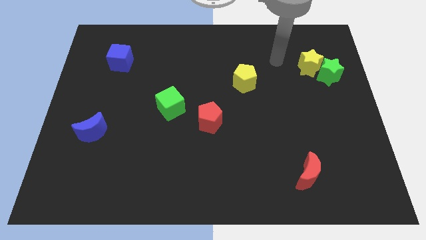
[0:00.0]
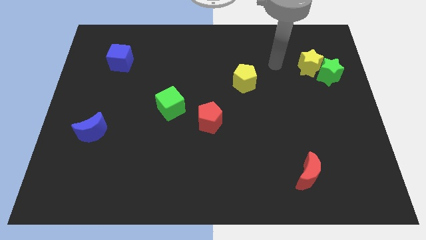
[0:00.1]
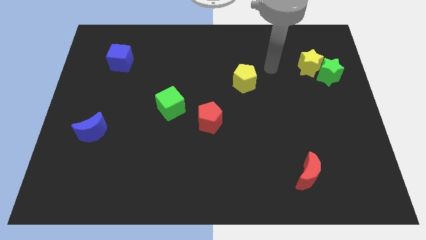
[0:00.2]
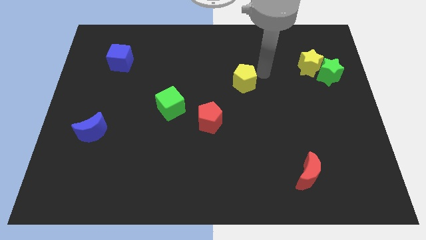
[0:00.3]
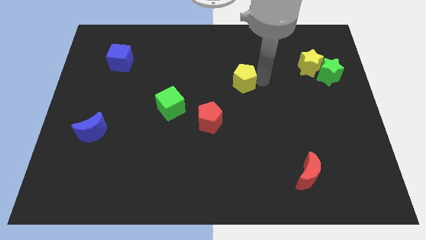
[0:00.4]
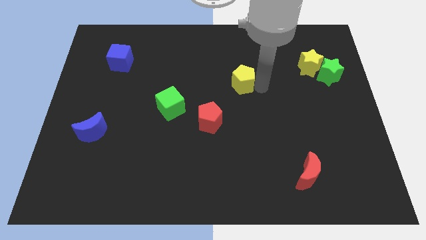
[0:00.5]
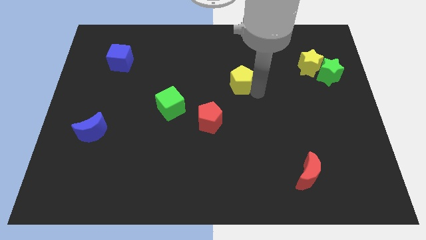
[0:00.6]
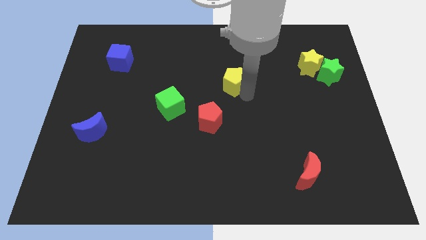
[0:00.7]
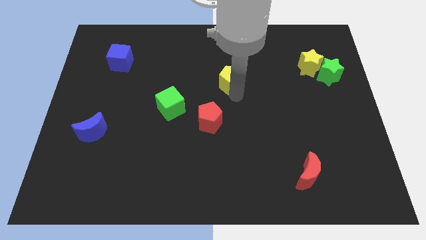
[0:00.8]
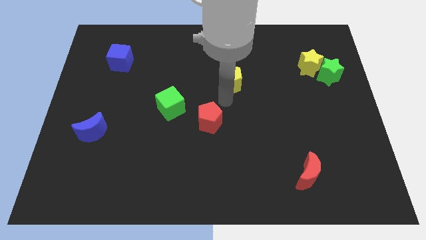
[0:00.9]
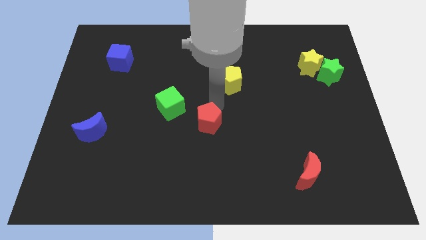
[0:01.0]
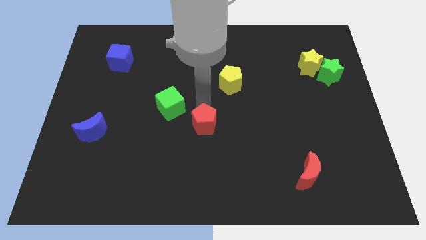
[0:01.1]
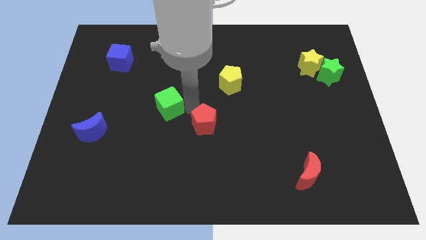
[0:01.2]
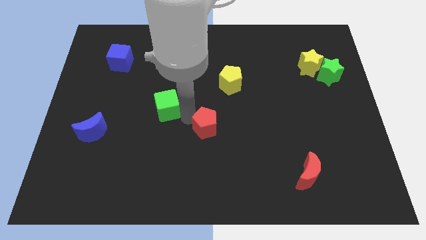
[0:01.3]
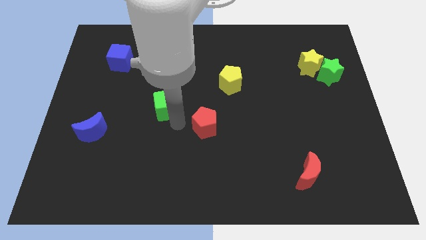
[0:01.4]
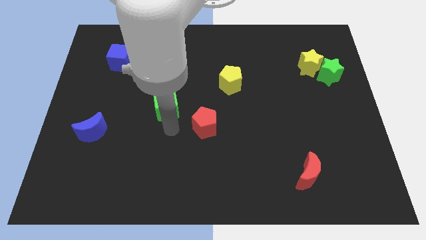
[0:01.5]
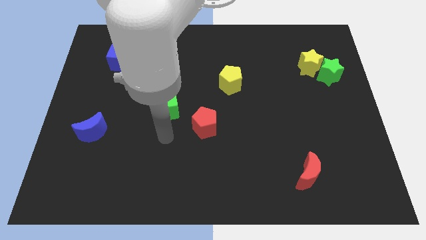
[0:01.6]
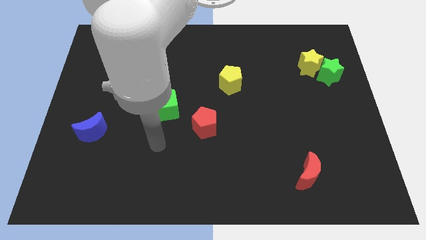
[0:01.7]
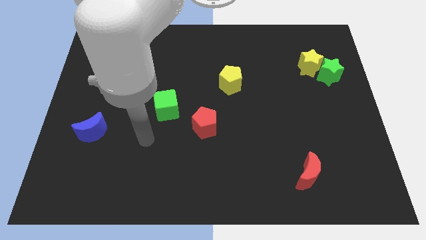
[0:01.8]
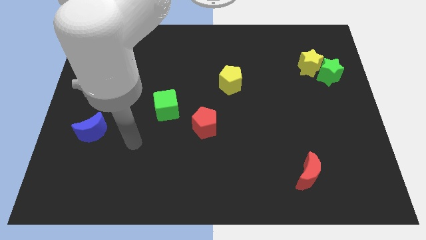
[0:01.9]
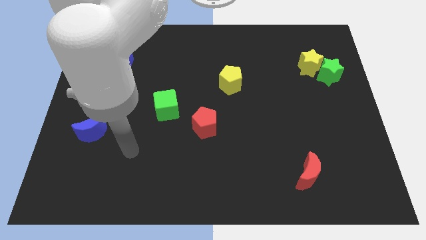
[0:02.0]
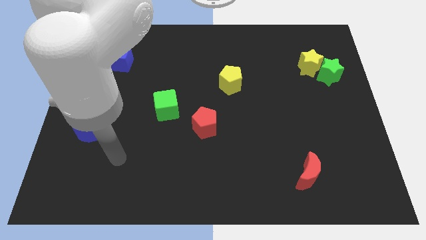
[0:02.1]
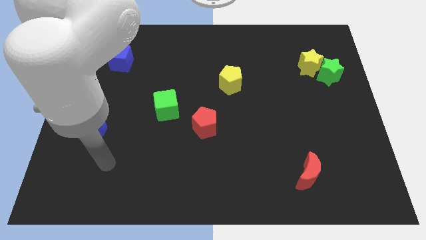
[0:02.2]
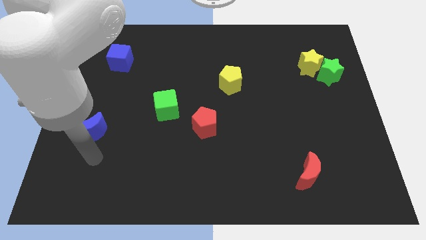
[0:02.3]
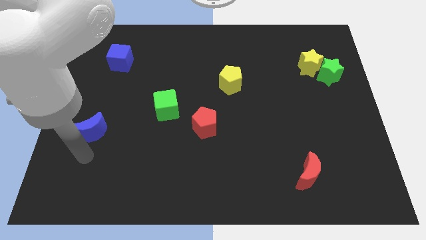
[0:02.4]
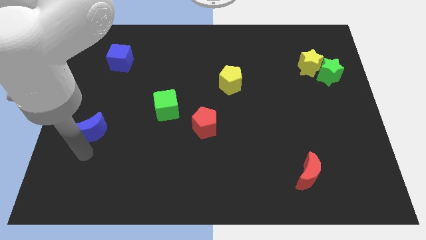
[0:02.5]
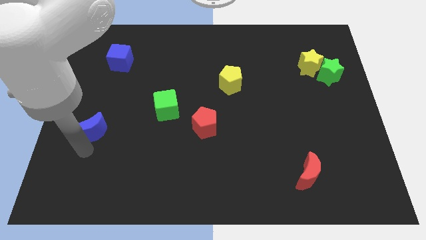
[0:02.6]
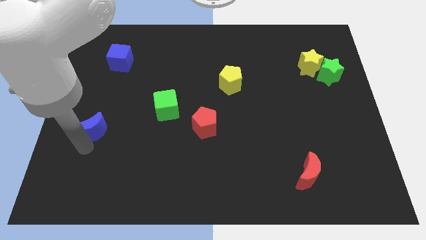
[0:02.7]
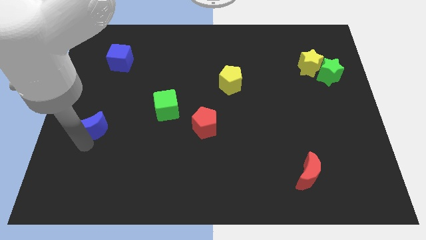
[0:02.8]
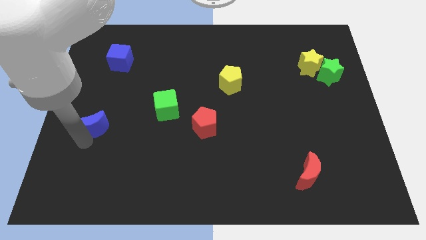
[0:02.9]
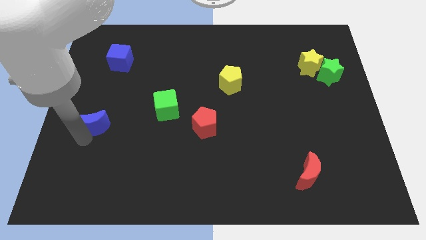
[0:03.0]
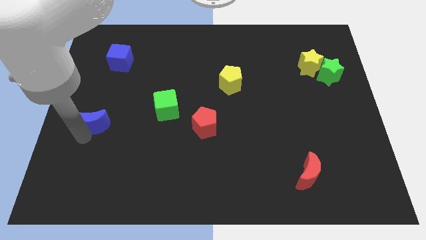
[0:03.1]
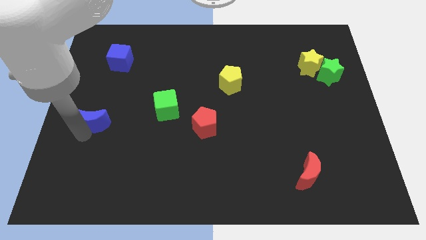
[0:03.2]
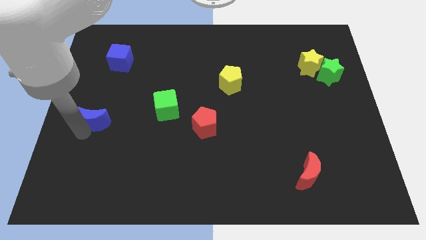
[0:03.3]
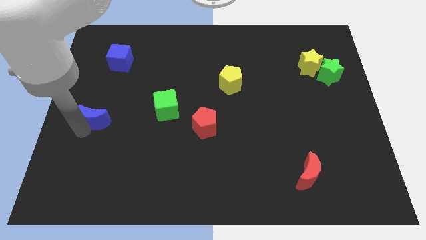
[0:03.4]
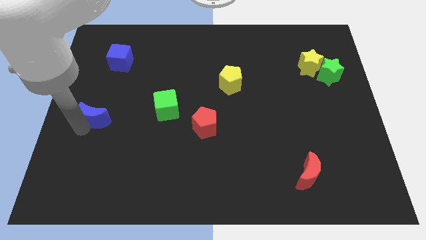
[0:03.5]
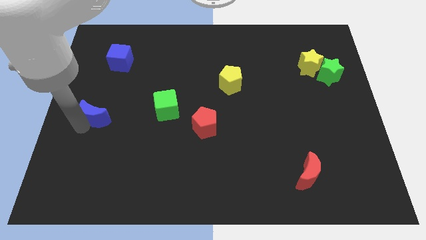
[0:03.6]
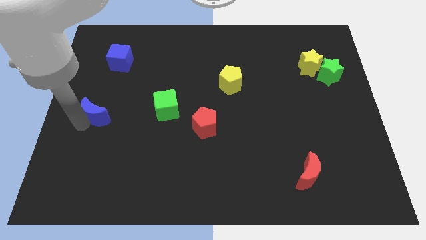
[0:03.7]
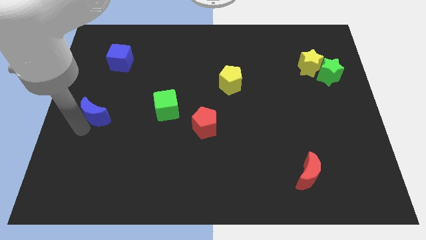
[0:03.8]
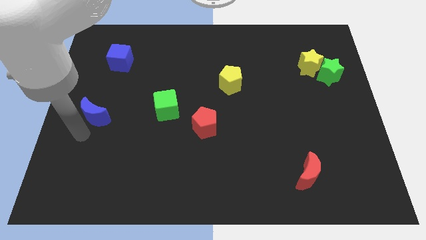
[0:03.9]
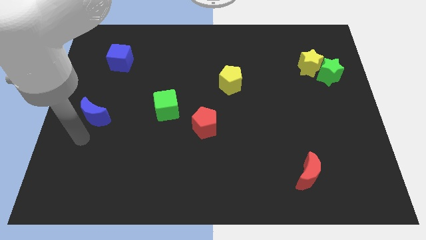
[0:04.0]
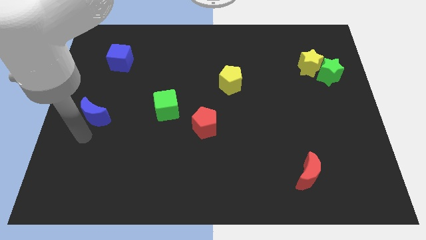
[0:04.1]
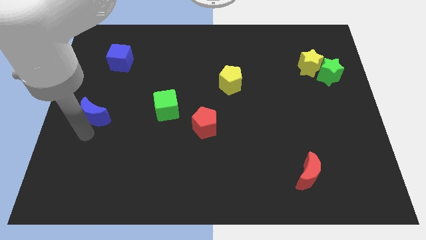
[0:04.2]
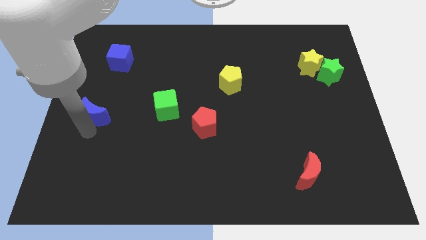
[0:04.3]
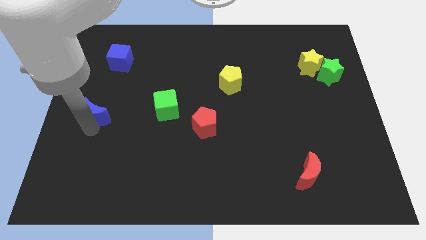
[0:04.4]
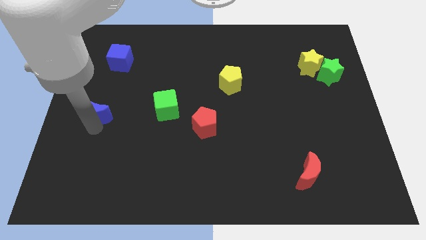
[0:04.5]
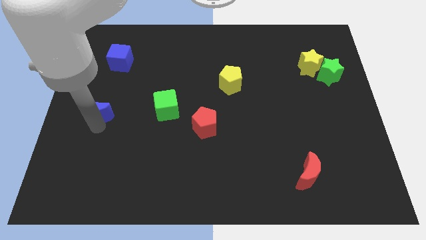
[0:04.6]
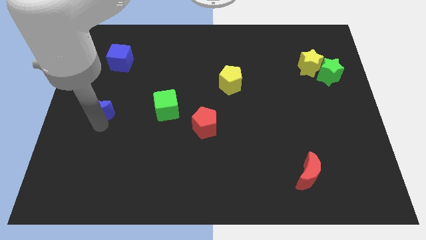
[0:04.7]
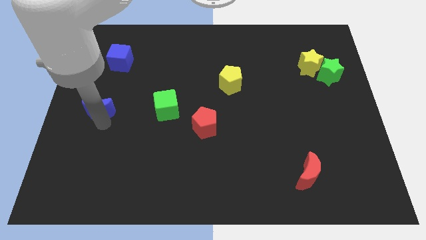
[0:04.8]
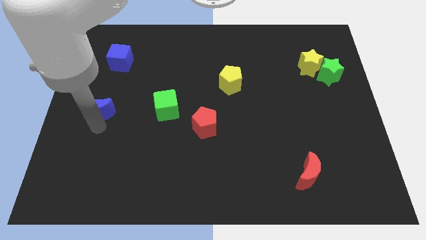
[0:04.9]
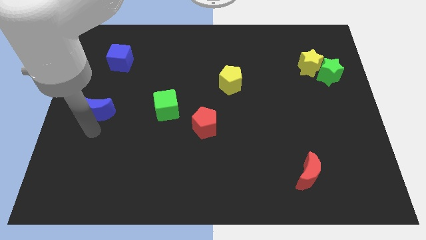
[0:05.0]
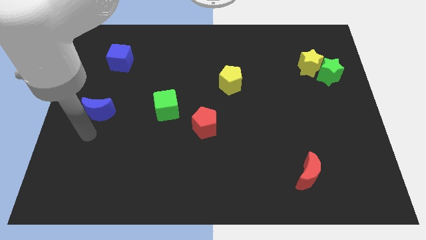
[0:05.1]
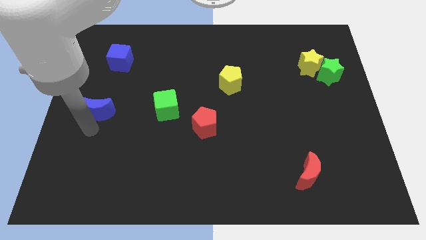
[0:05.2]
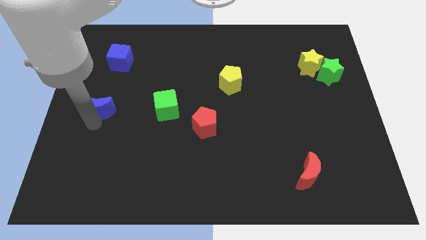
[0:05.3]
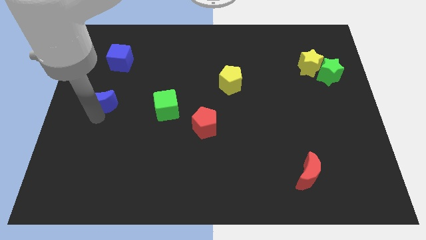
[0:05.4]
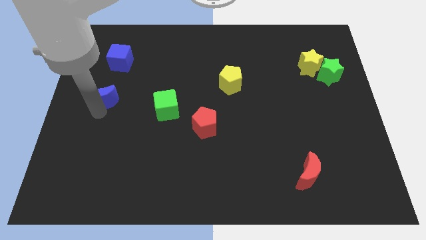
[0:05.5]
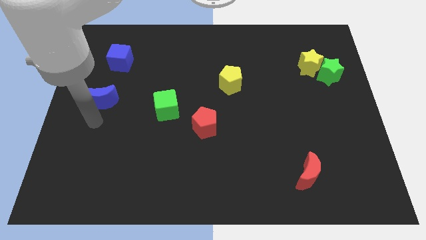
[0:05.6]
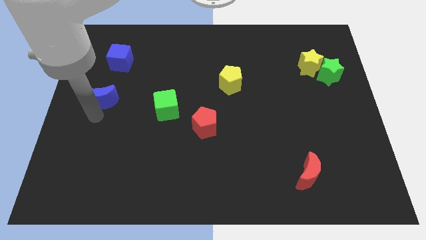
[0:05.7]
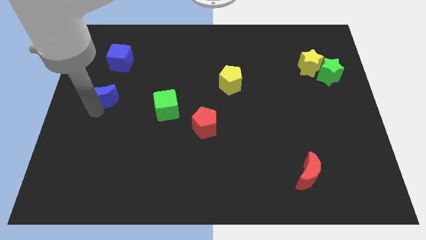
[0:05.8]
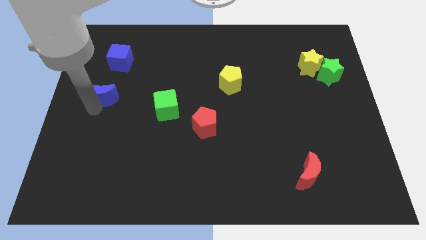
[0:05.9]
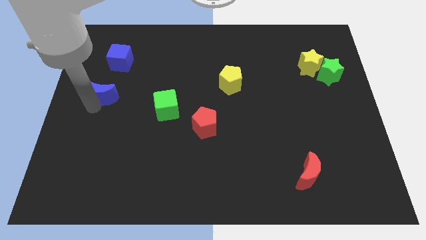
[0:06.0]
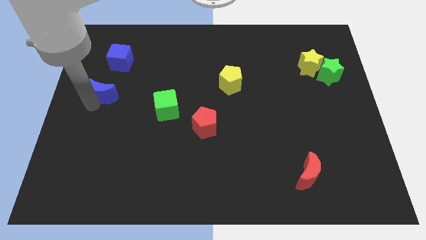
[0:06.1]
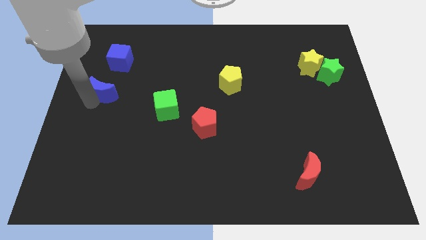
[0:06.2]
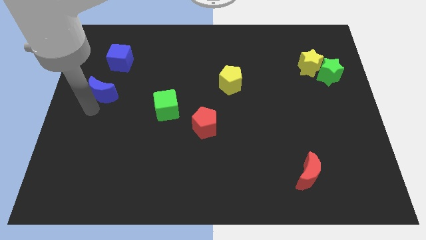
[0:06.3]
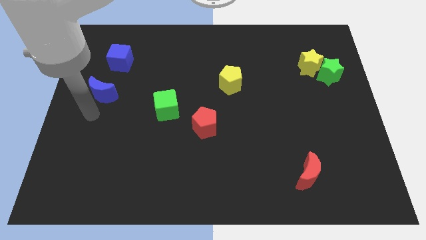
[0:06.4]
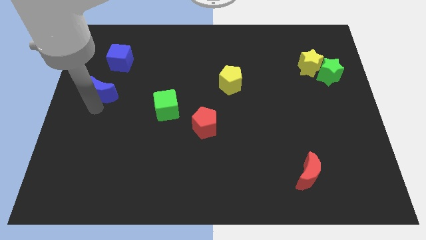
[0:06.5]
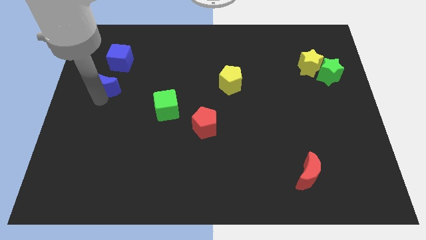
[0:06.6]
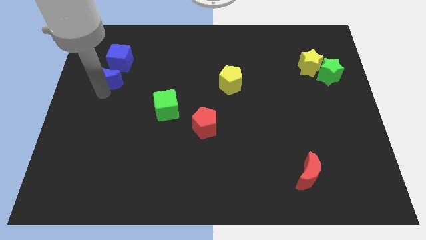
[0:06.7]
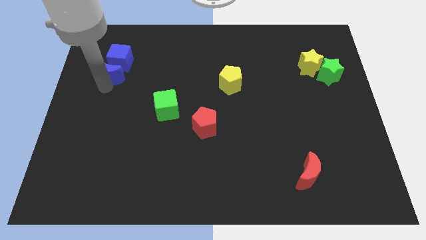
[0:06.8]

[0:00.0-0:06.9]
move the blue moon to the blue cube

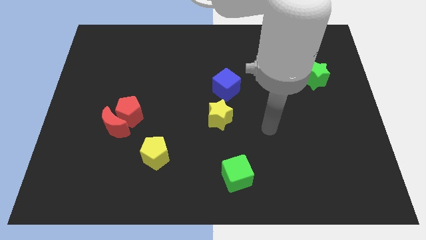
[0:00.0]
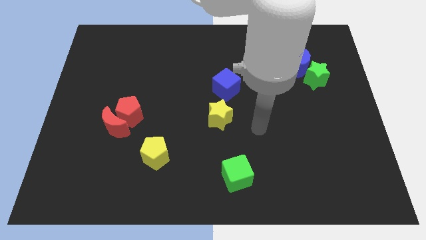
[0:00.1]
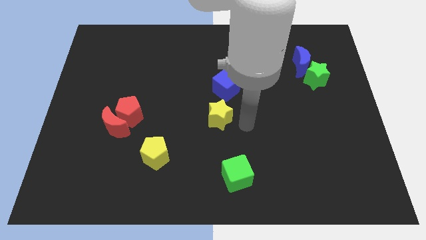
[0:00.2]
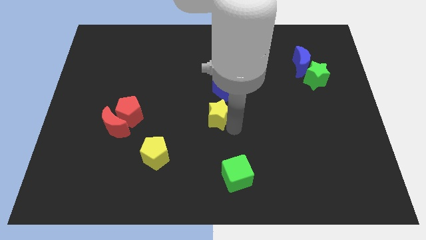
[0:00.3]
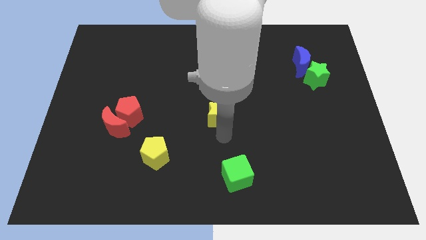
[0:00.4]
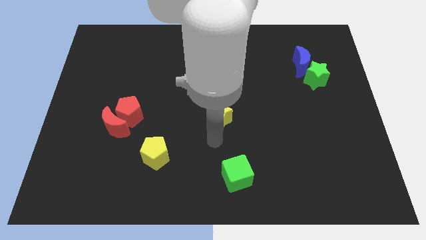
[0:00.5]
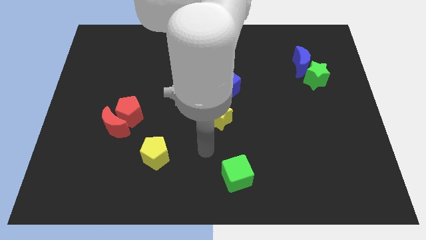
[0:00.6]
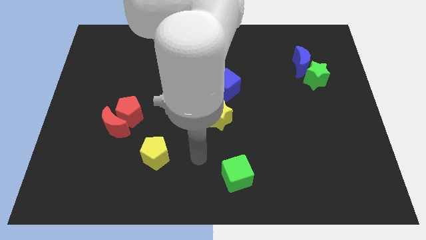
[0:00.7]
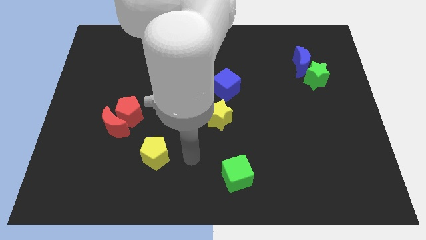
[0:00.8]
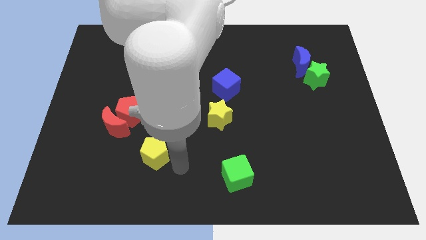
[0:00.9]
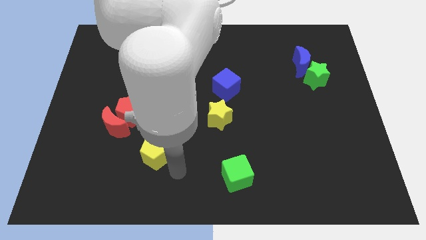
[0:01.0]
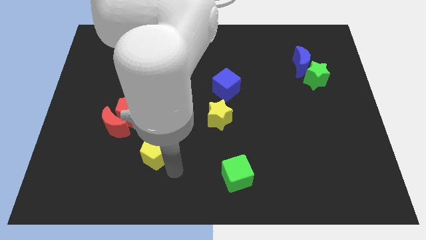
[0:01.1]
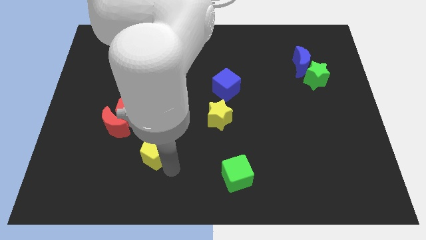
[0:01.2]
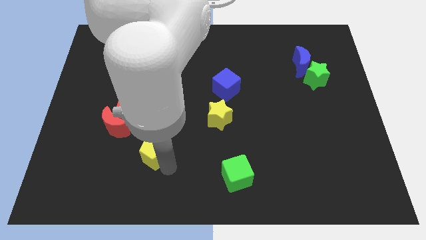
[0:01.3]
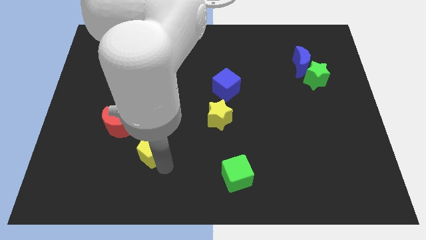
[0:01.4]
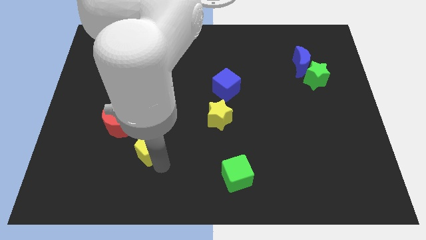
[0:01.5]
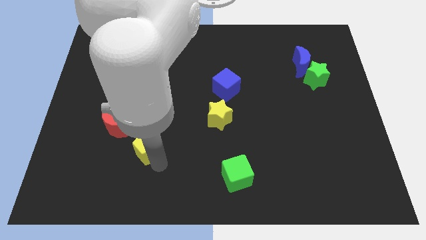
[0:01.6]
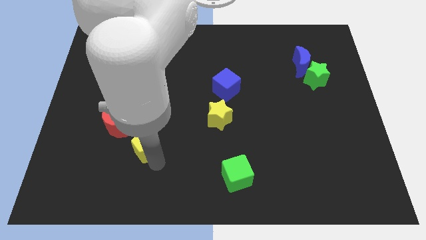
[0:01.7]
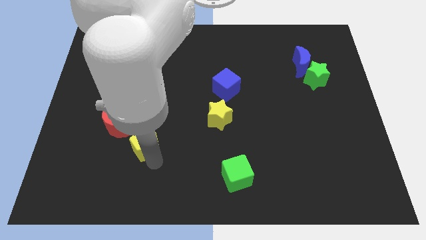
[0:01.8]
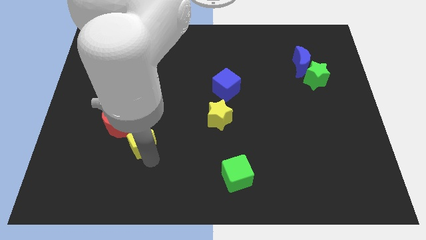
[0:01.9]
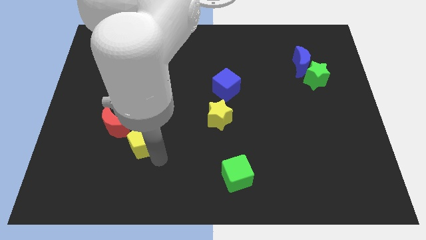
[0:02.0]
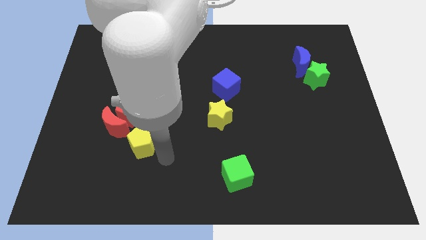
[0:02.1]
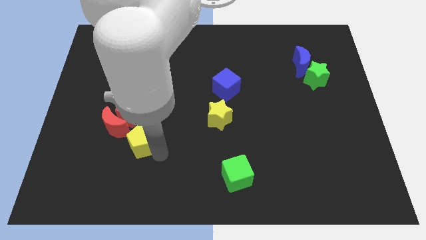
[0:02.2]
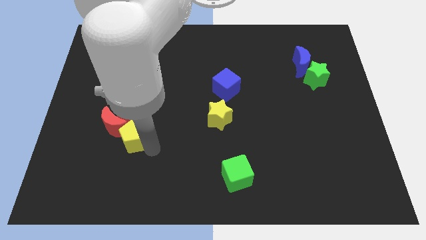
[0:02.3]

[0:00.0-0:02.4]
move the yellow pentagon towards the red moon
